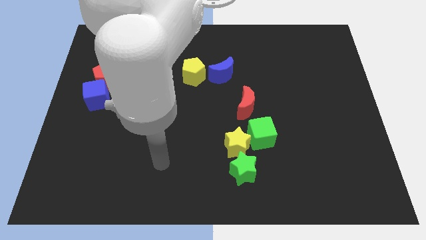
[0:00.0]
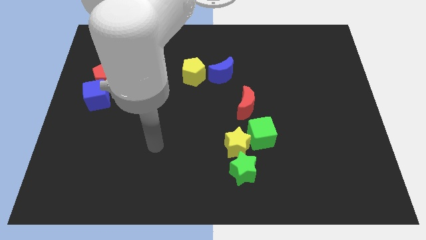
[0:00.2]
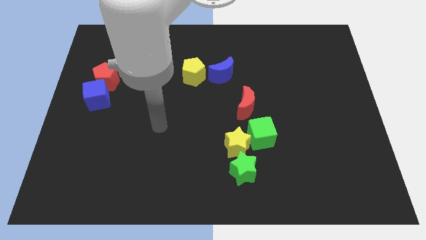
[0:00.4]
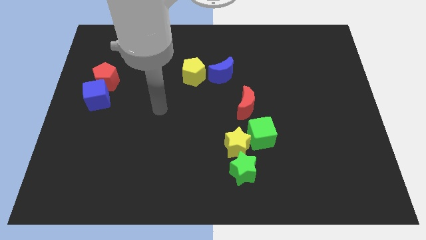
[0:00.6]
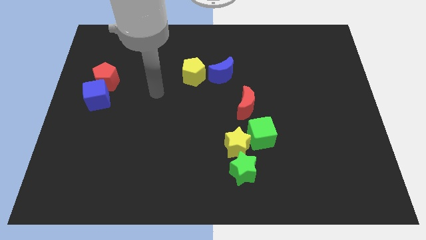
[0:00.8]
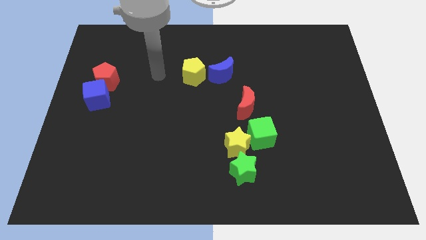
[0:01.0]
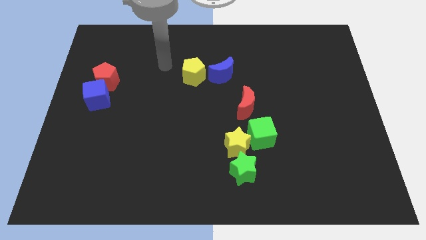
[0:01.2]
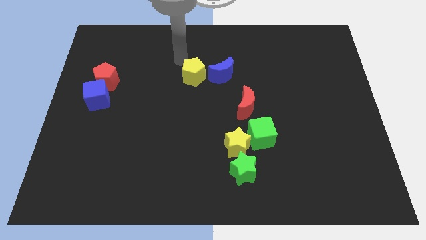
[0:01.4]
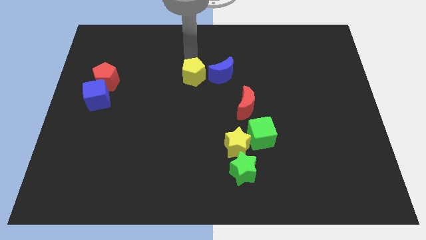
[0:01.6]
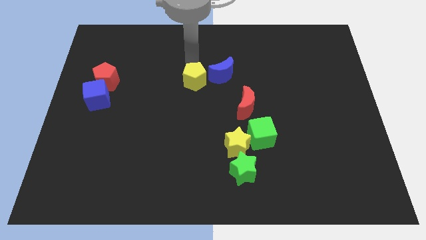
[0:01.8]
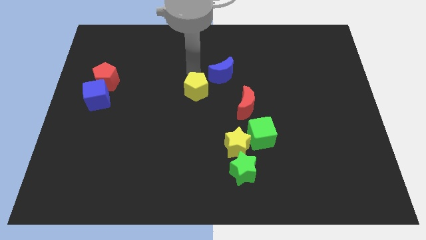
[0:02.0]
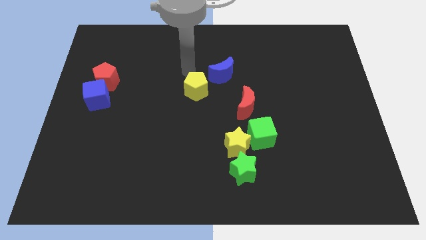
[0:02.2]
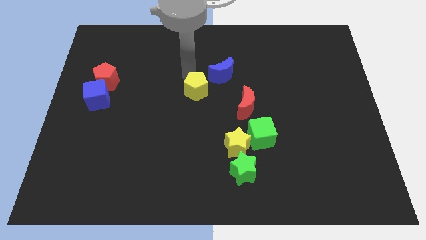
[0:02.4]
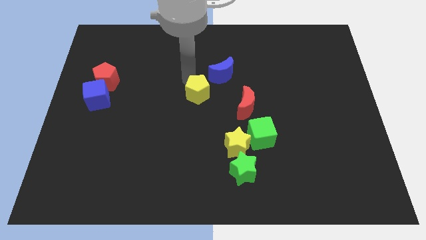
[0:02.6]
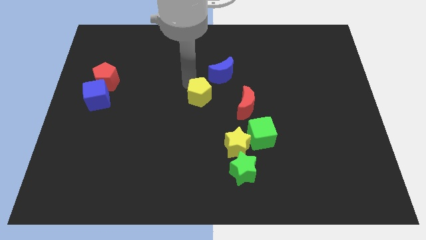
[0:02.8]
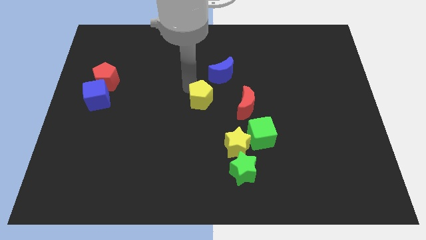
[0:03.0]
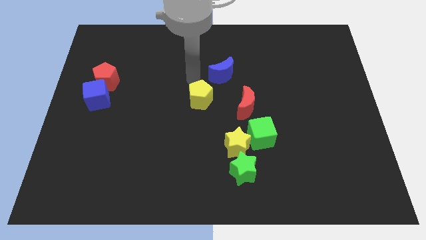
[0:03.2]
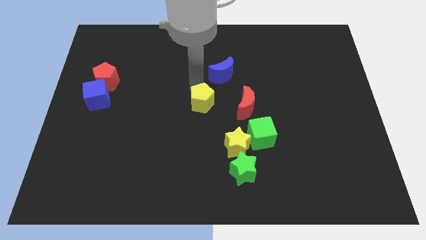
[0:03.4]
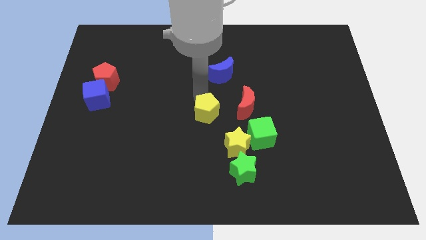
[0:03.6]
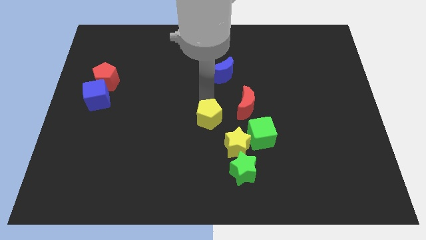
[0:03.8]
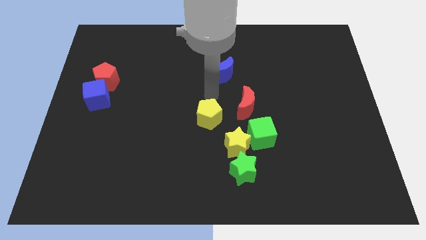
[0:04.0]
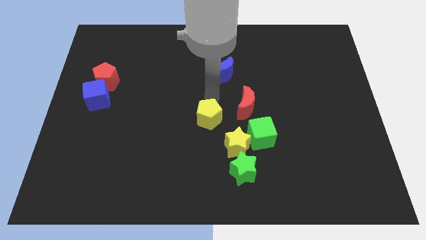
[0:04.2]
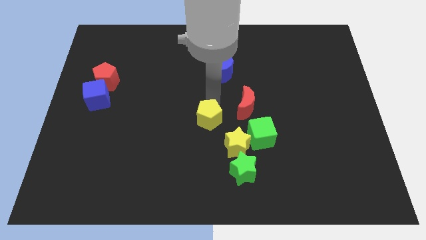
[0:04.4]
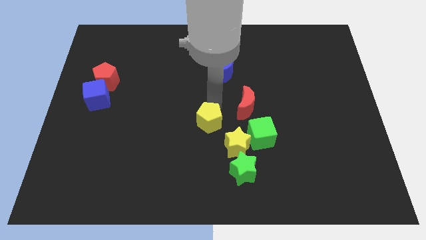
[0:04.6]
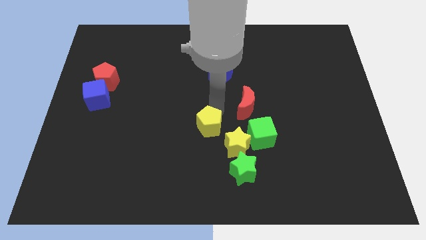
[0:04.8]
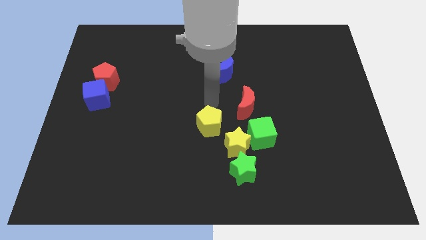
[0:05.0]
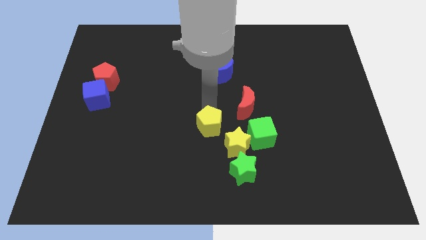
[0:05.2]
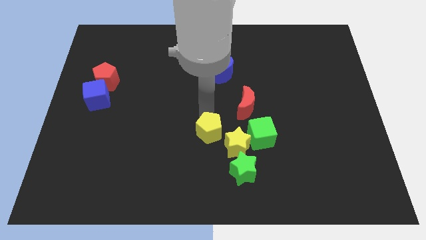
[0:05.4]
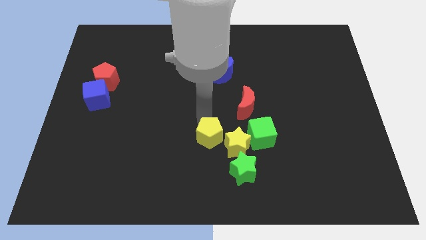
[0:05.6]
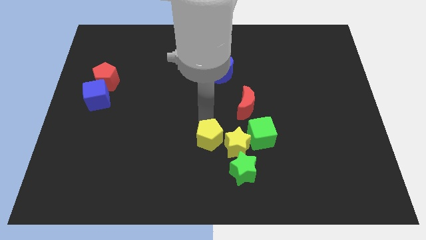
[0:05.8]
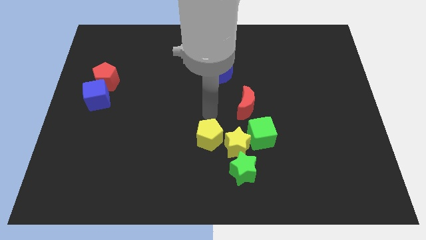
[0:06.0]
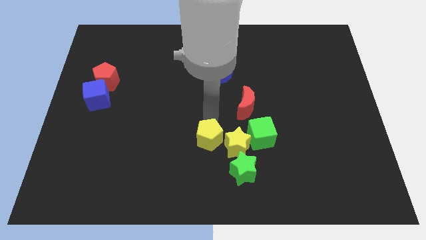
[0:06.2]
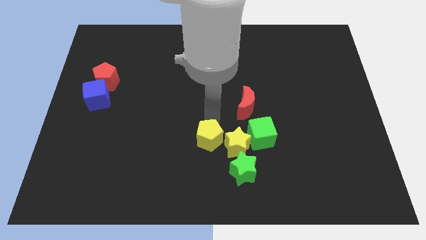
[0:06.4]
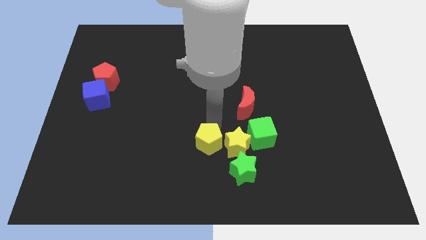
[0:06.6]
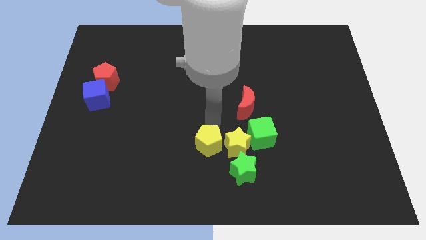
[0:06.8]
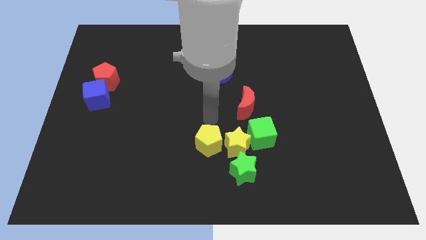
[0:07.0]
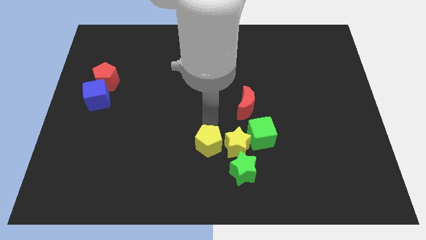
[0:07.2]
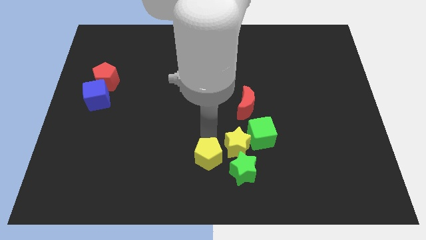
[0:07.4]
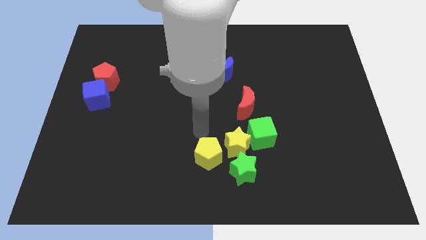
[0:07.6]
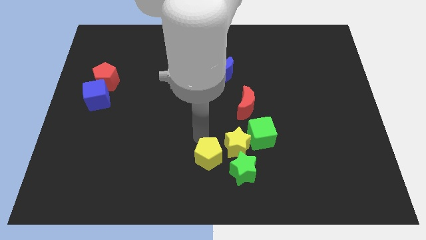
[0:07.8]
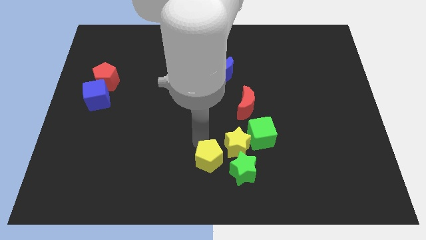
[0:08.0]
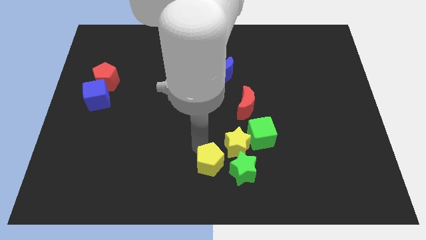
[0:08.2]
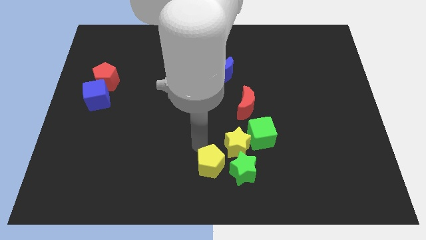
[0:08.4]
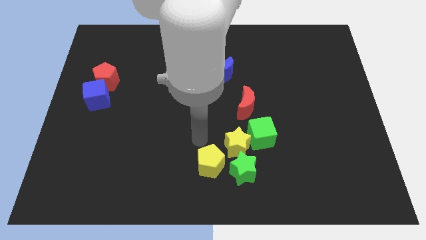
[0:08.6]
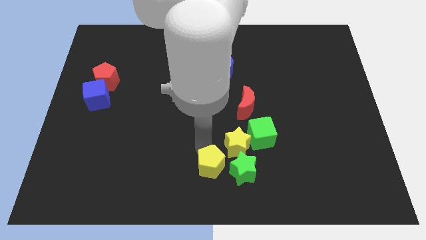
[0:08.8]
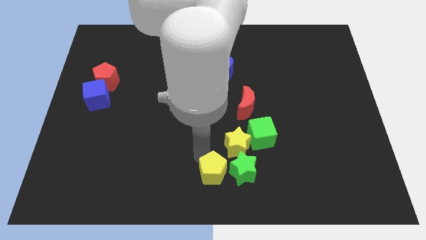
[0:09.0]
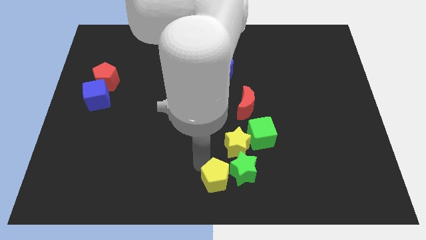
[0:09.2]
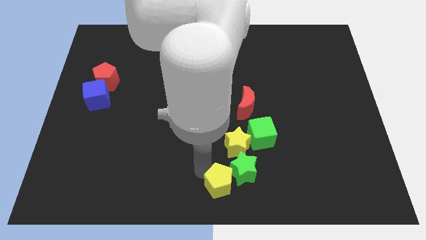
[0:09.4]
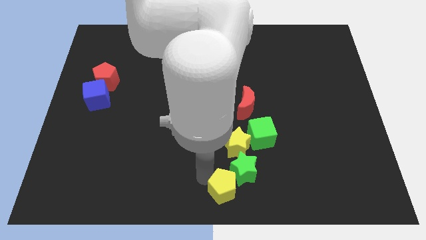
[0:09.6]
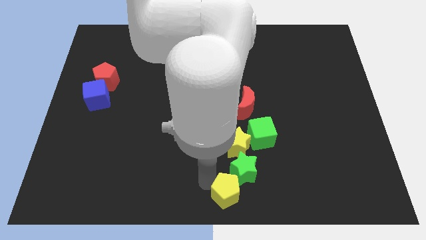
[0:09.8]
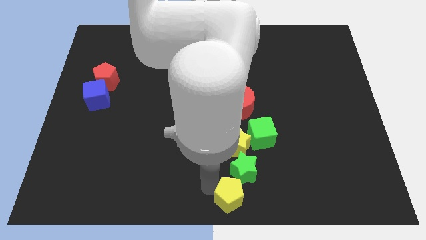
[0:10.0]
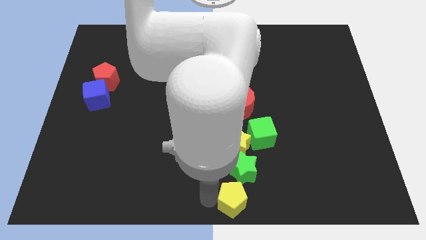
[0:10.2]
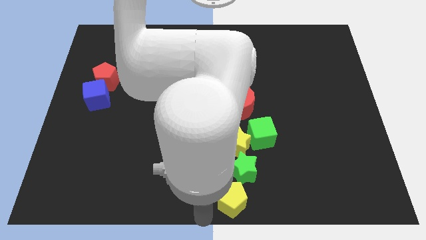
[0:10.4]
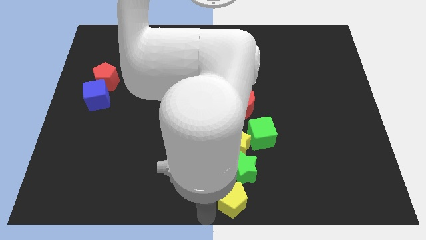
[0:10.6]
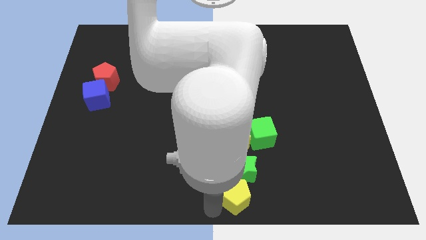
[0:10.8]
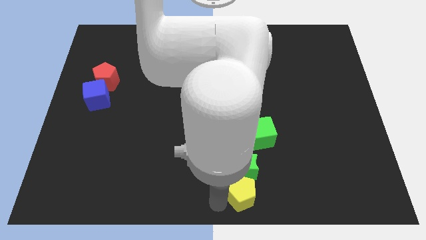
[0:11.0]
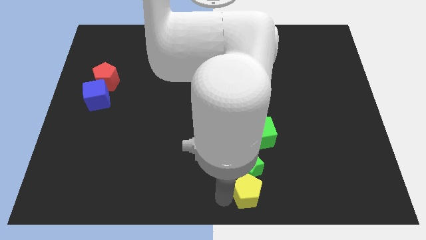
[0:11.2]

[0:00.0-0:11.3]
push the yellow pentagon below the green cube
